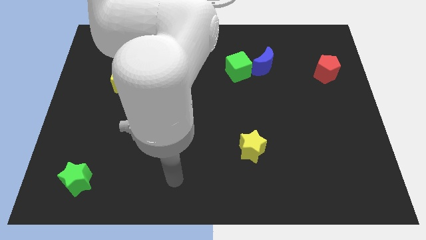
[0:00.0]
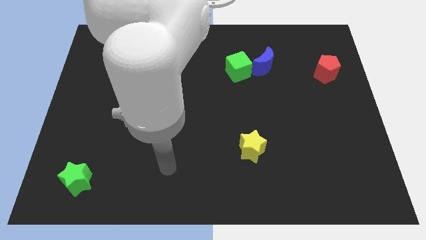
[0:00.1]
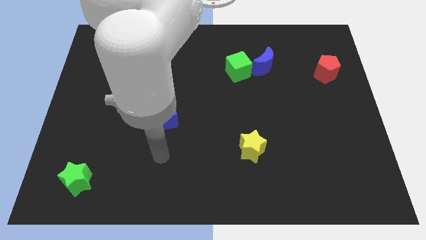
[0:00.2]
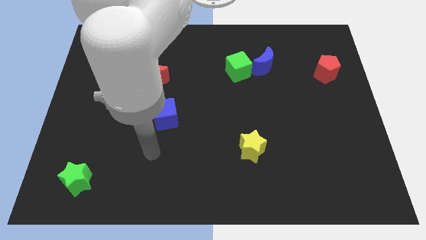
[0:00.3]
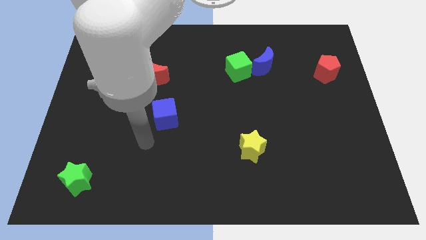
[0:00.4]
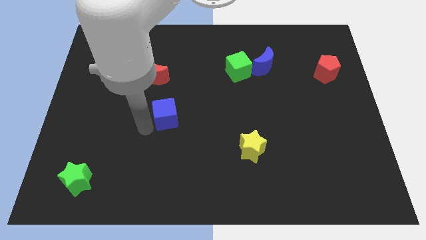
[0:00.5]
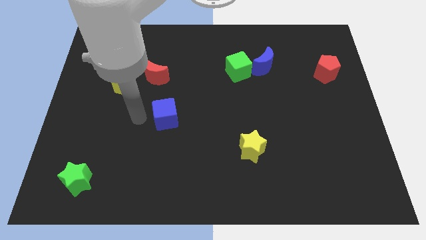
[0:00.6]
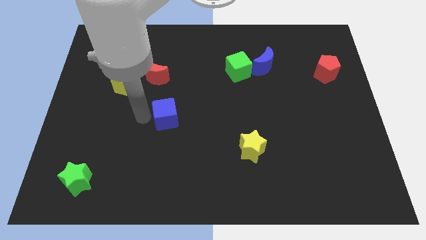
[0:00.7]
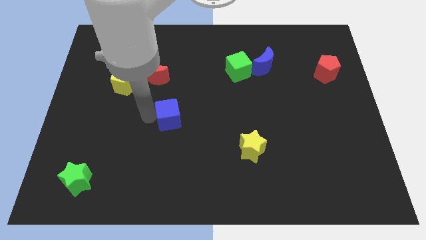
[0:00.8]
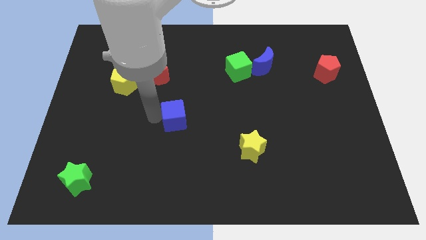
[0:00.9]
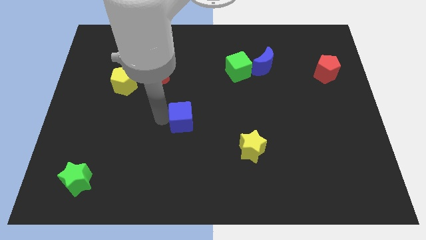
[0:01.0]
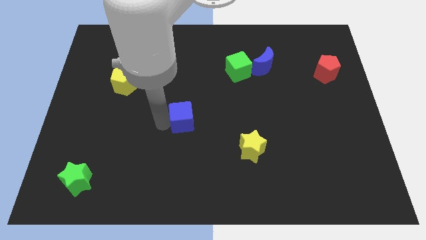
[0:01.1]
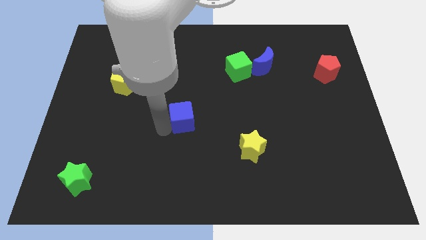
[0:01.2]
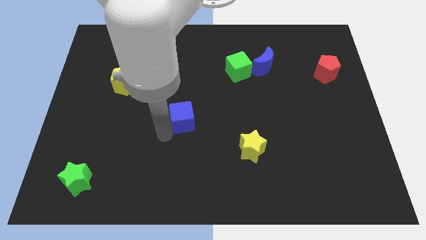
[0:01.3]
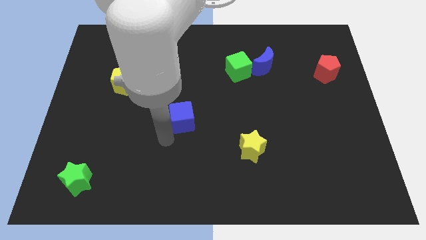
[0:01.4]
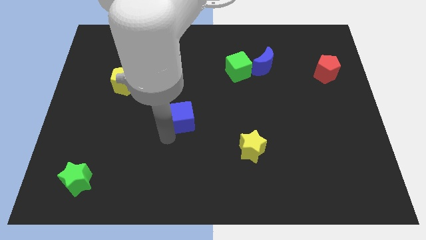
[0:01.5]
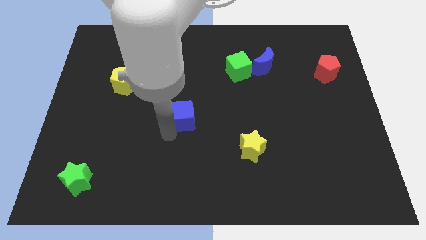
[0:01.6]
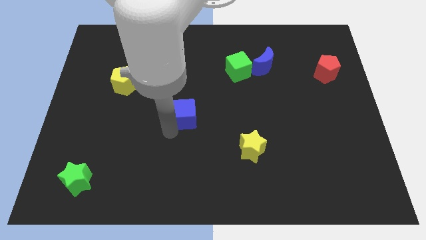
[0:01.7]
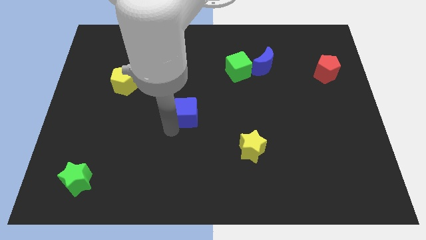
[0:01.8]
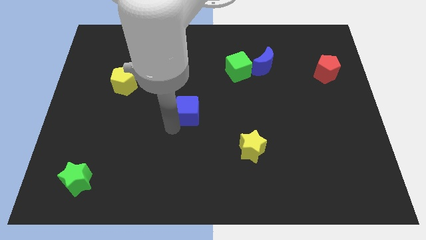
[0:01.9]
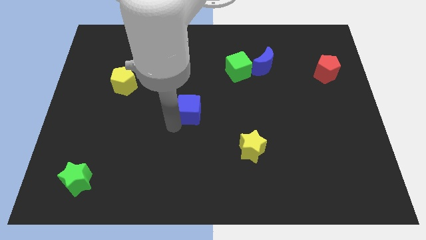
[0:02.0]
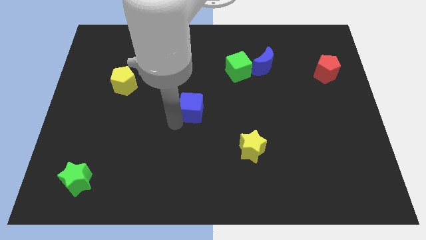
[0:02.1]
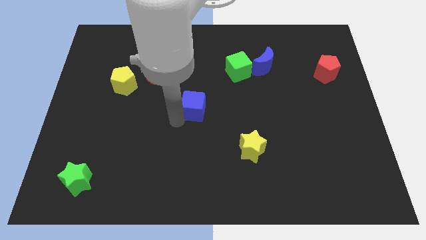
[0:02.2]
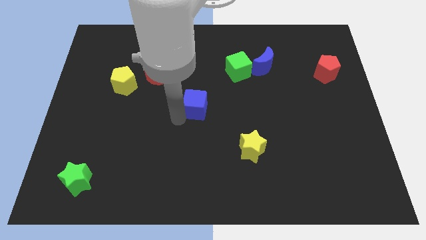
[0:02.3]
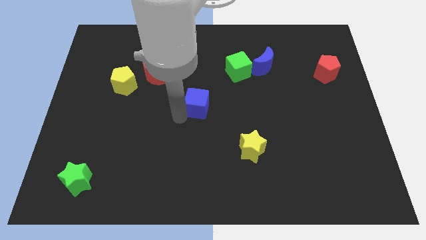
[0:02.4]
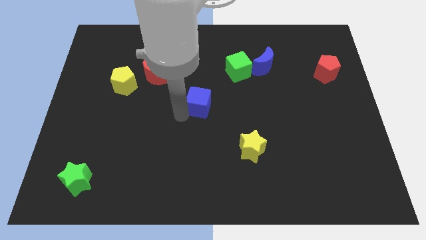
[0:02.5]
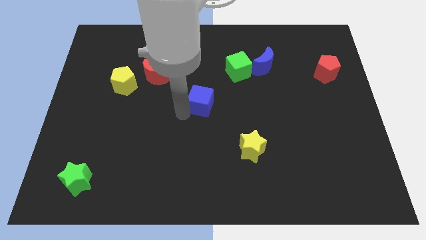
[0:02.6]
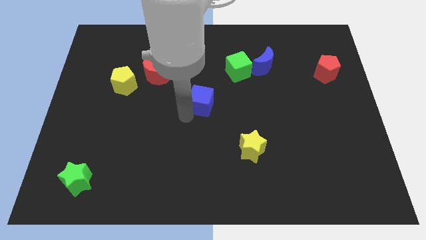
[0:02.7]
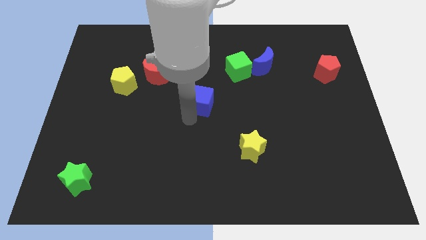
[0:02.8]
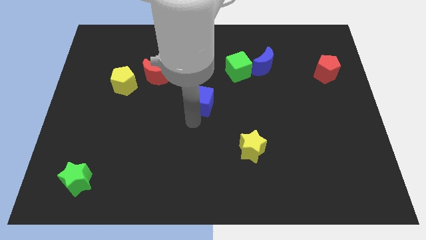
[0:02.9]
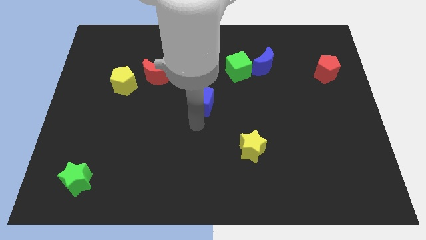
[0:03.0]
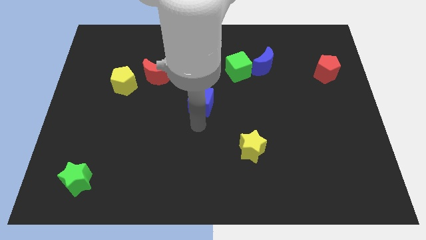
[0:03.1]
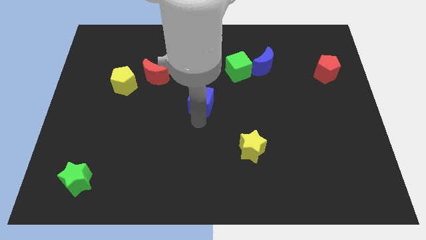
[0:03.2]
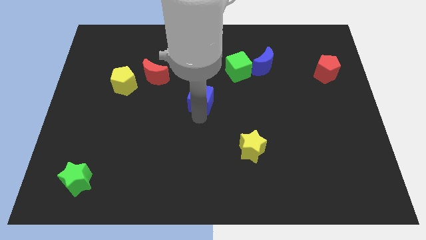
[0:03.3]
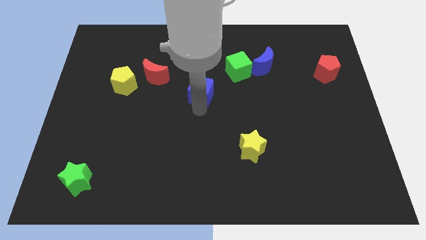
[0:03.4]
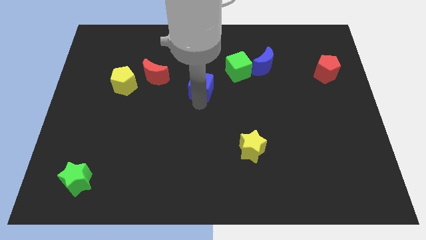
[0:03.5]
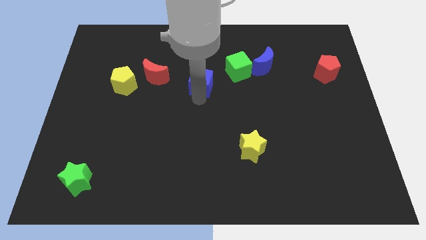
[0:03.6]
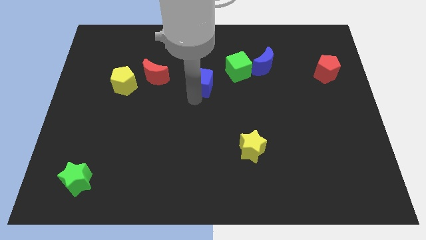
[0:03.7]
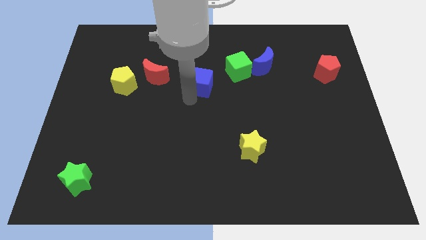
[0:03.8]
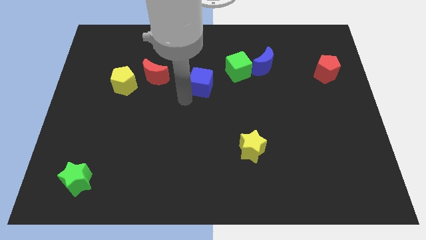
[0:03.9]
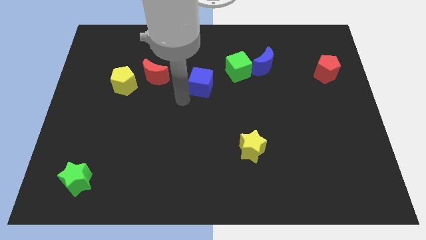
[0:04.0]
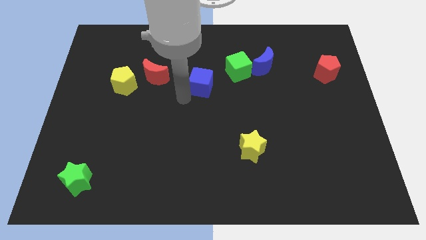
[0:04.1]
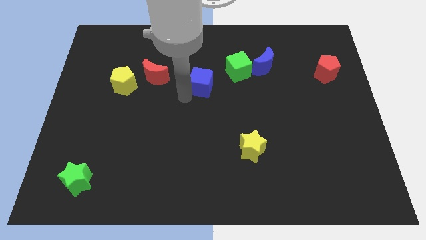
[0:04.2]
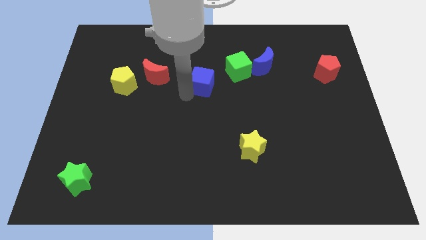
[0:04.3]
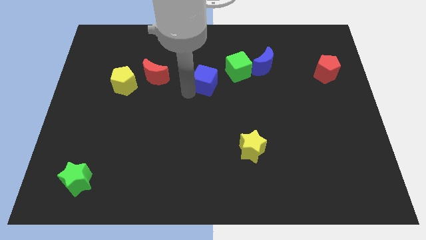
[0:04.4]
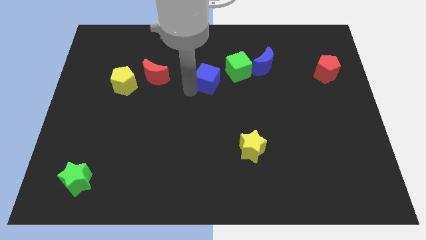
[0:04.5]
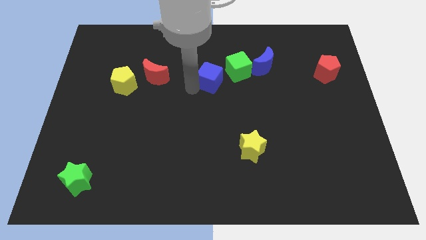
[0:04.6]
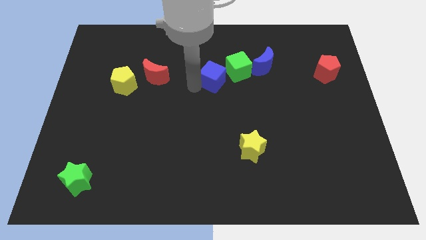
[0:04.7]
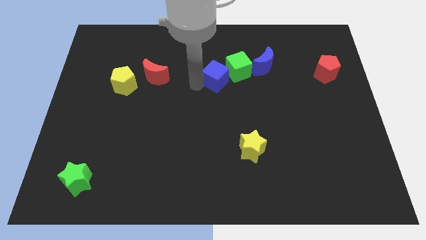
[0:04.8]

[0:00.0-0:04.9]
push the blue cube to the left side of the blue moon

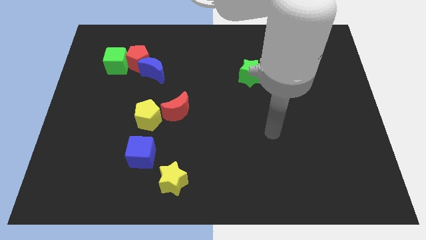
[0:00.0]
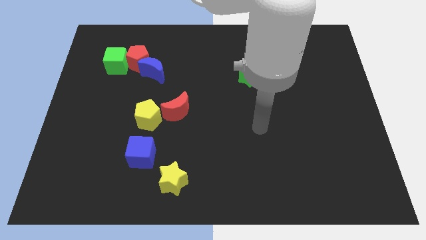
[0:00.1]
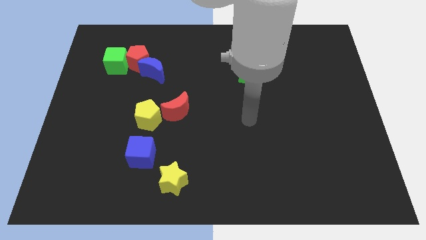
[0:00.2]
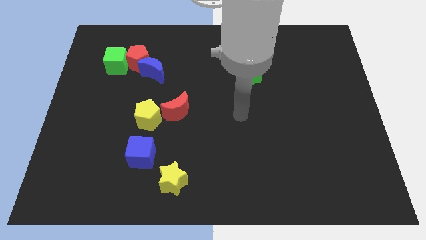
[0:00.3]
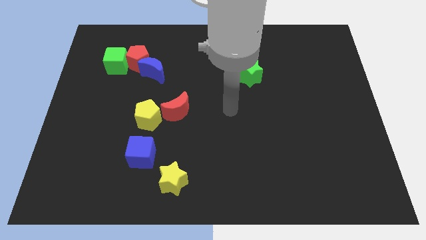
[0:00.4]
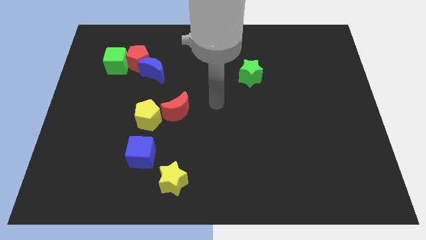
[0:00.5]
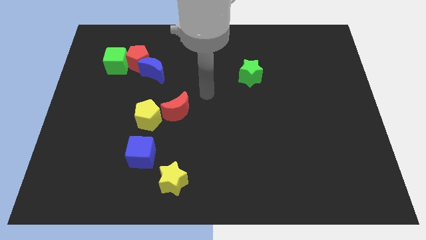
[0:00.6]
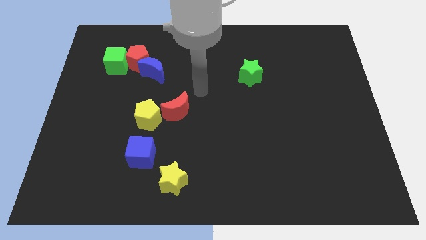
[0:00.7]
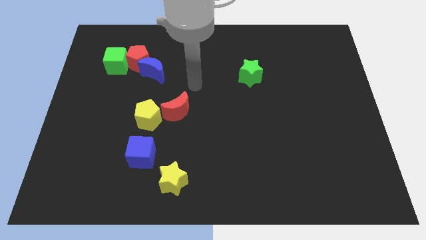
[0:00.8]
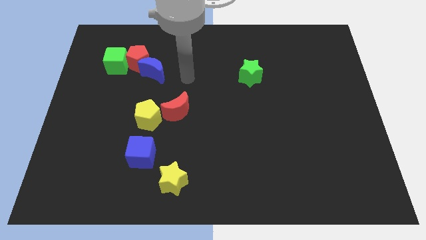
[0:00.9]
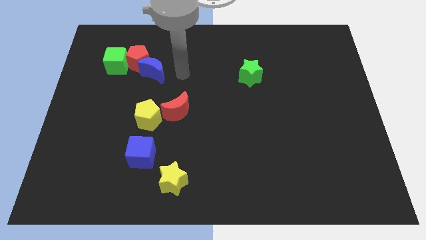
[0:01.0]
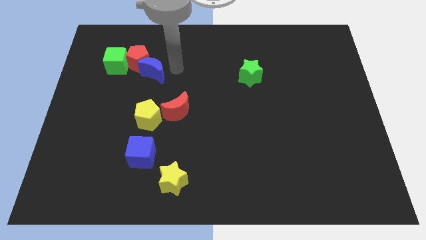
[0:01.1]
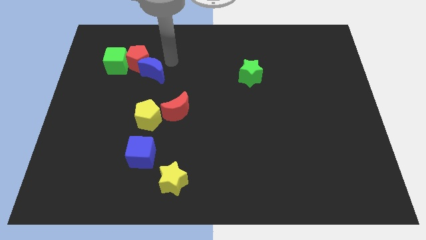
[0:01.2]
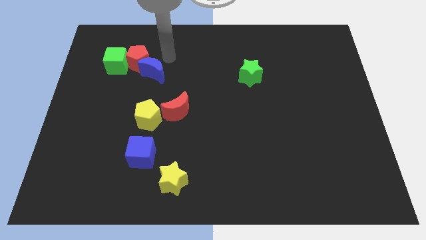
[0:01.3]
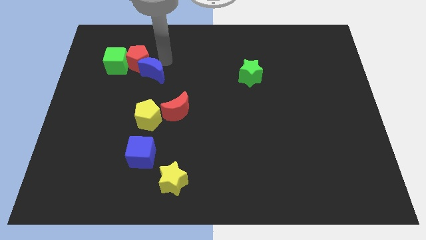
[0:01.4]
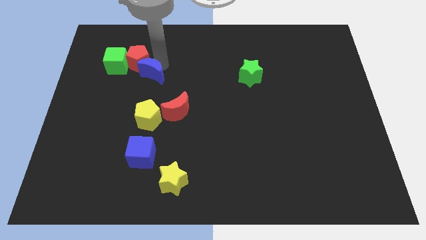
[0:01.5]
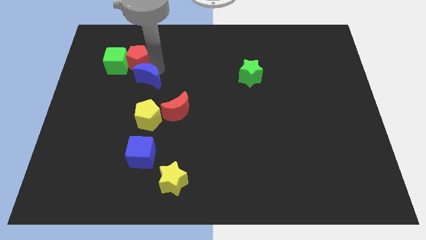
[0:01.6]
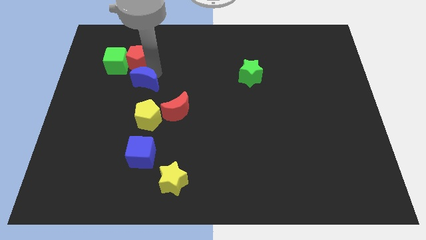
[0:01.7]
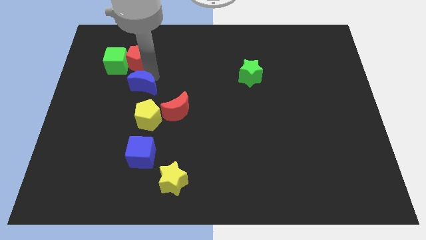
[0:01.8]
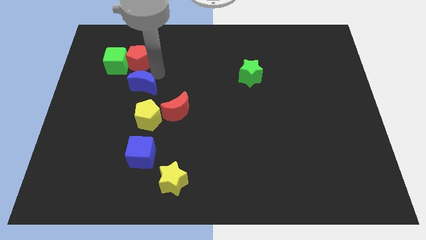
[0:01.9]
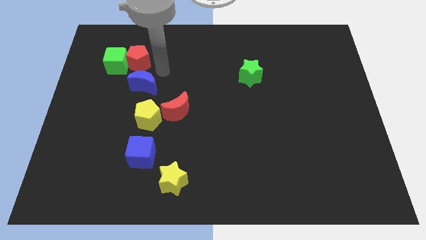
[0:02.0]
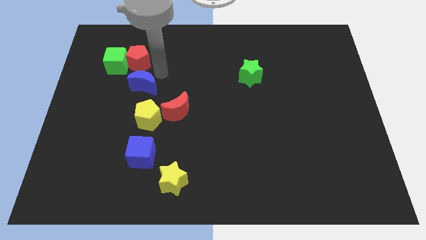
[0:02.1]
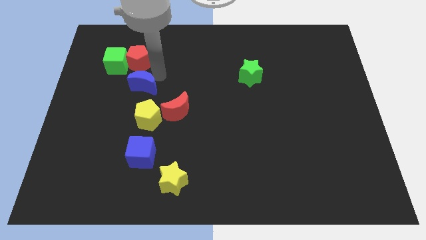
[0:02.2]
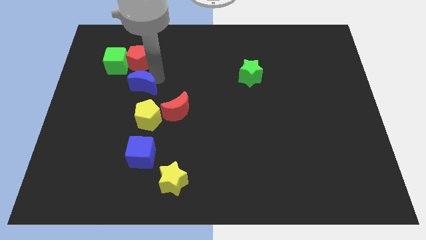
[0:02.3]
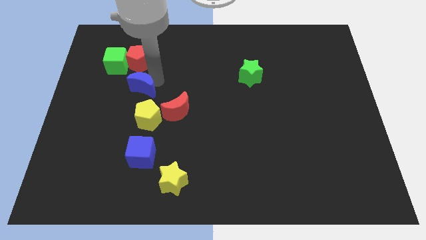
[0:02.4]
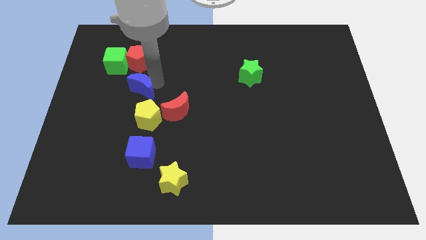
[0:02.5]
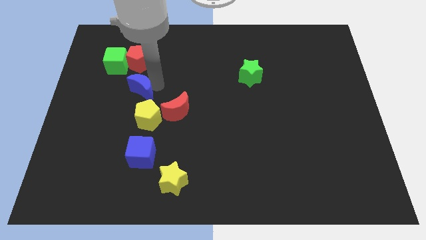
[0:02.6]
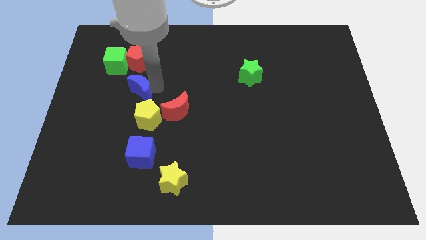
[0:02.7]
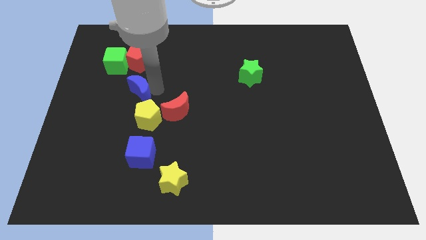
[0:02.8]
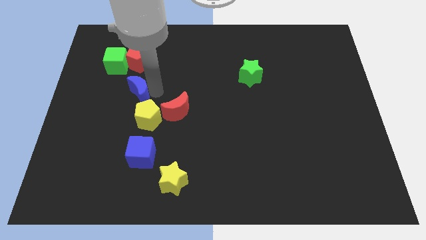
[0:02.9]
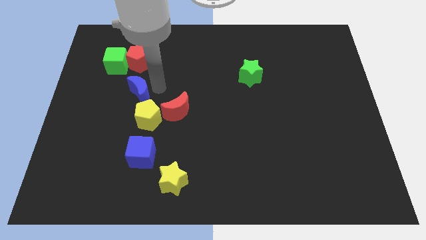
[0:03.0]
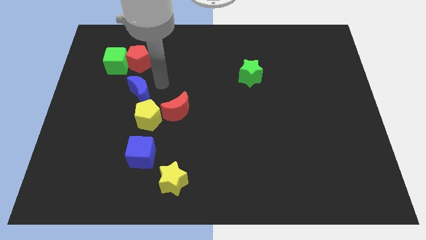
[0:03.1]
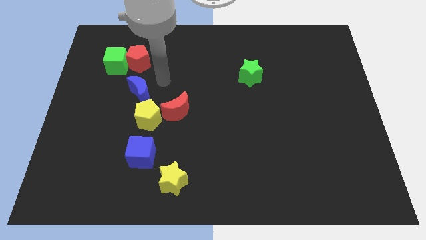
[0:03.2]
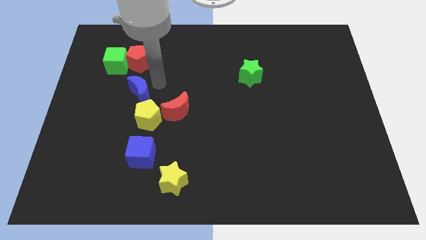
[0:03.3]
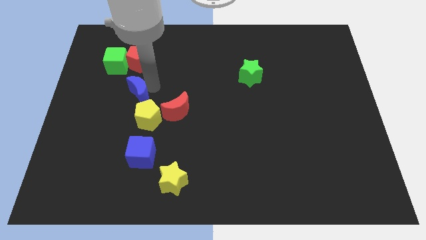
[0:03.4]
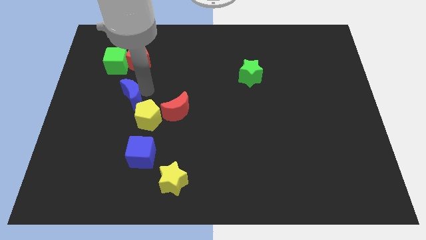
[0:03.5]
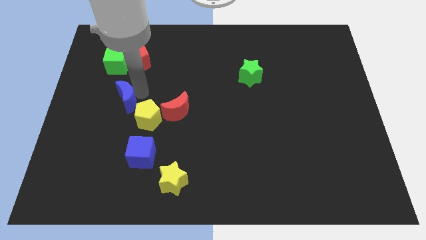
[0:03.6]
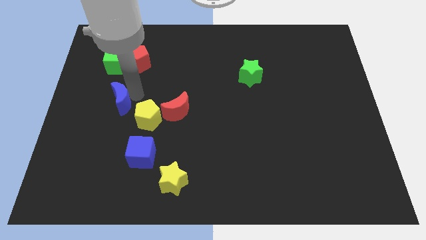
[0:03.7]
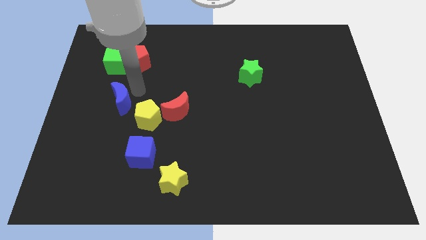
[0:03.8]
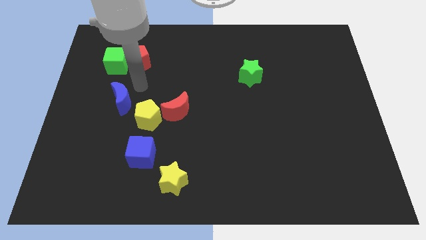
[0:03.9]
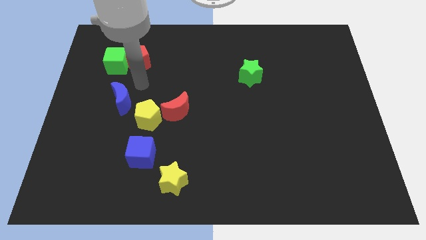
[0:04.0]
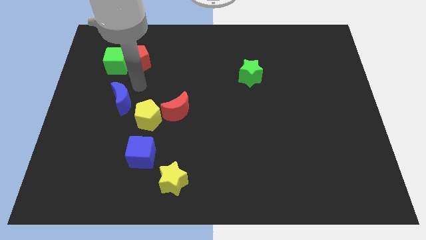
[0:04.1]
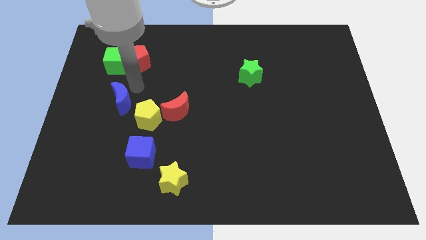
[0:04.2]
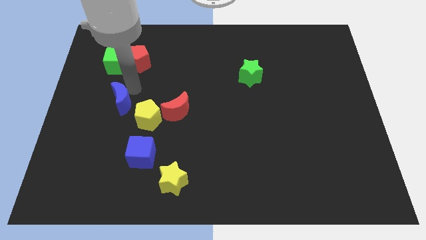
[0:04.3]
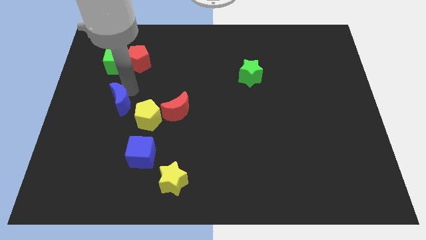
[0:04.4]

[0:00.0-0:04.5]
move the blue moon to the left side of the yellow pentagon
